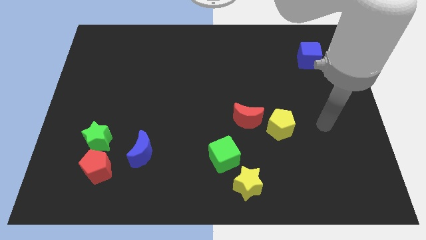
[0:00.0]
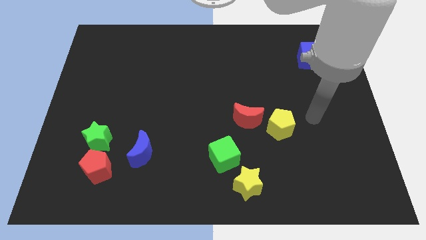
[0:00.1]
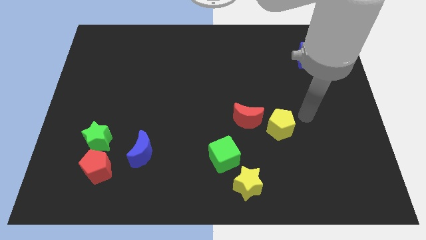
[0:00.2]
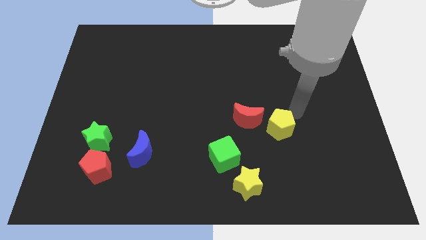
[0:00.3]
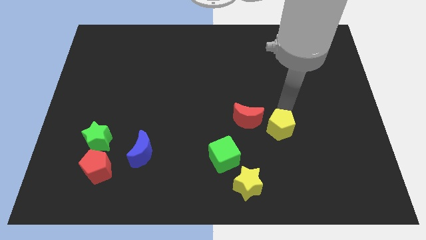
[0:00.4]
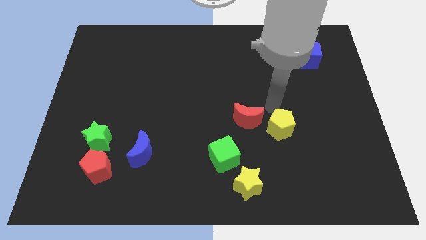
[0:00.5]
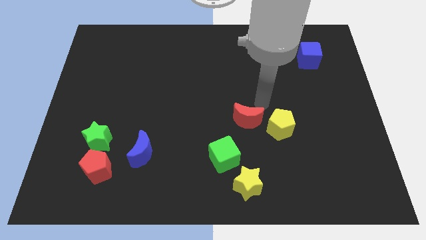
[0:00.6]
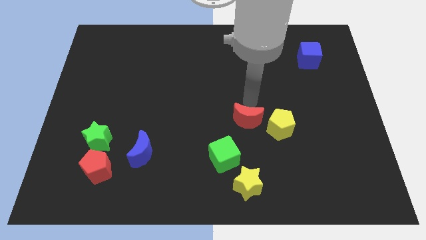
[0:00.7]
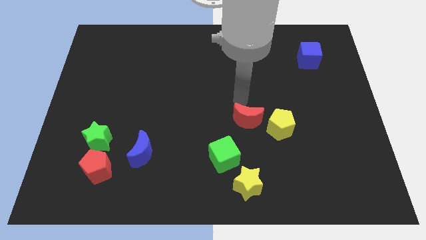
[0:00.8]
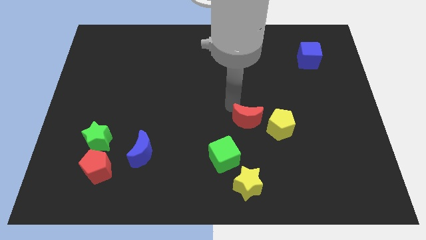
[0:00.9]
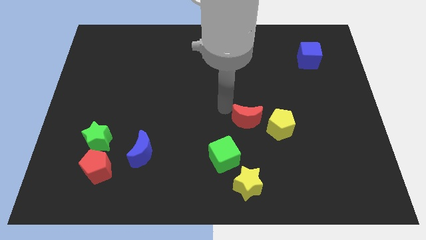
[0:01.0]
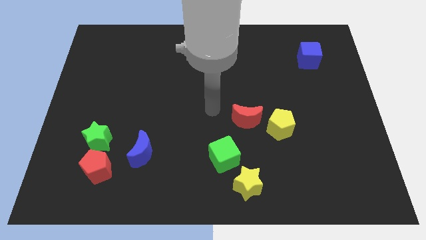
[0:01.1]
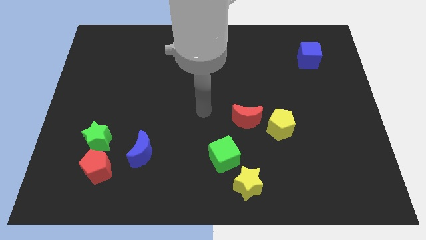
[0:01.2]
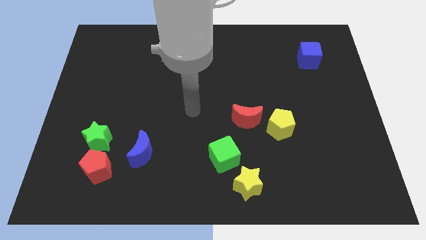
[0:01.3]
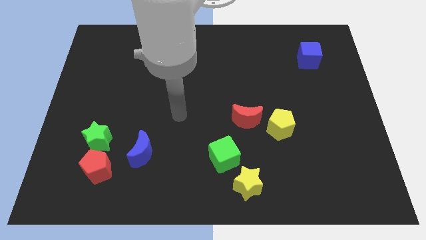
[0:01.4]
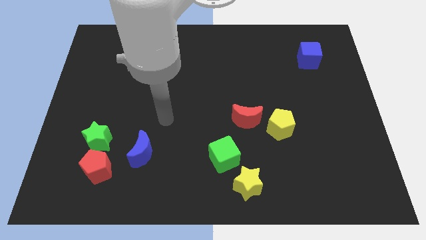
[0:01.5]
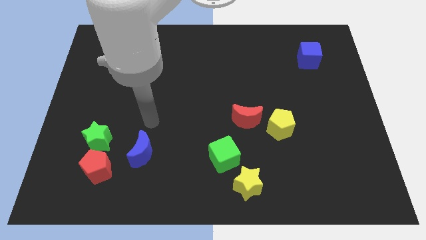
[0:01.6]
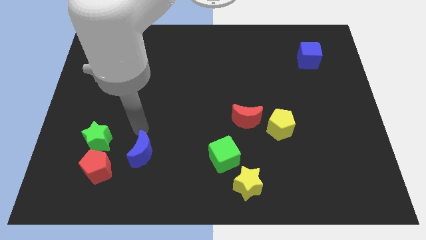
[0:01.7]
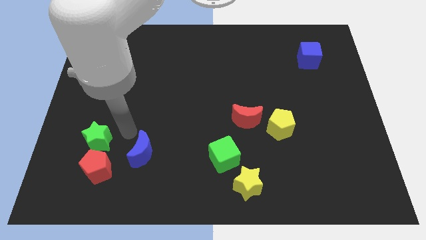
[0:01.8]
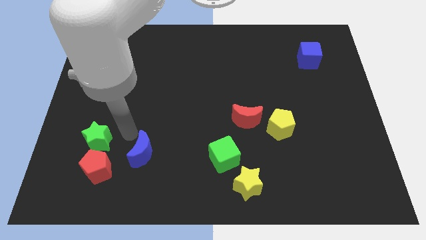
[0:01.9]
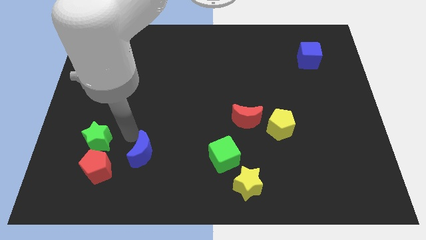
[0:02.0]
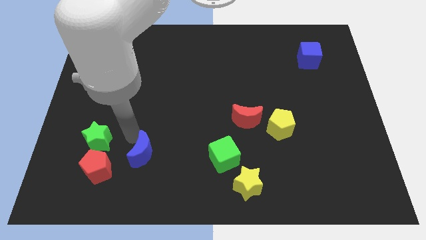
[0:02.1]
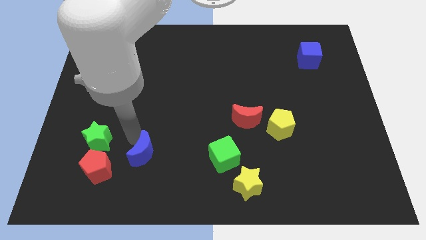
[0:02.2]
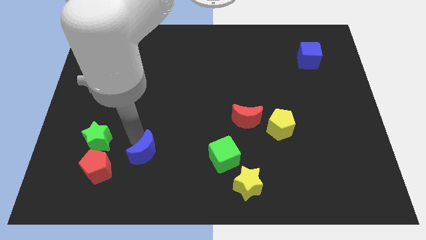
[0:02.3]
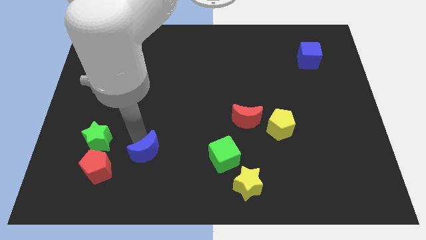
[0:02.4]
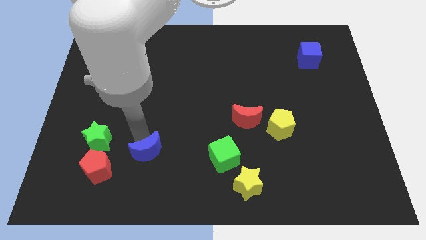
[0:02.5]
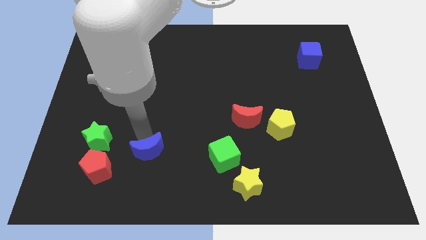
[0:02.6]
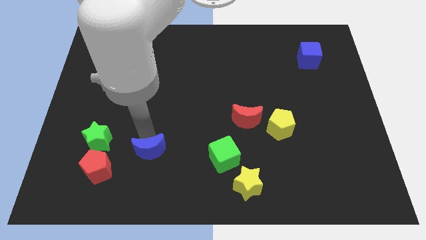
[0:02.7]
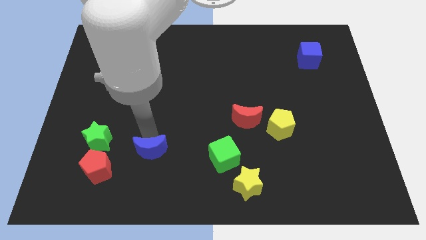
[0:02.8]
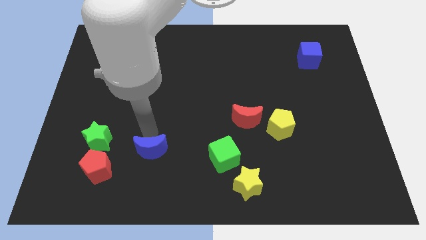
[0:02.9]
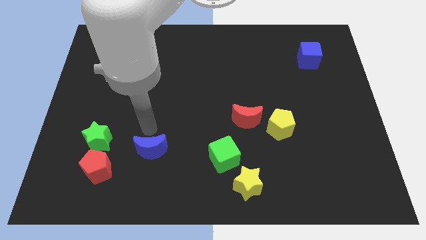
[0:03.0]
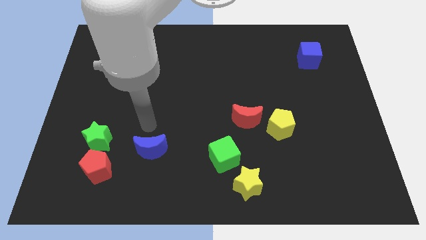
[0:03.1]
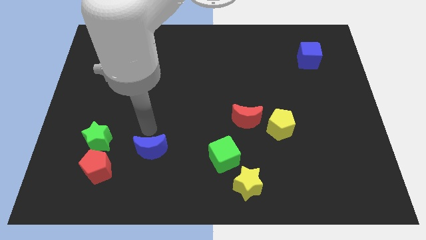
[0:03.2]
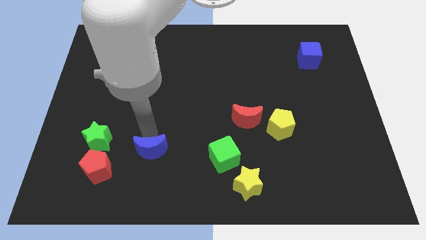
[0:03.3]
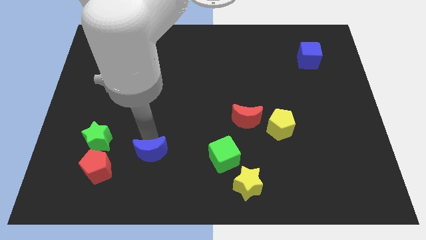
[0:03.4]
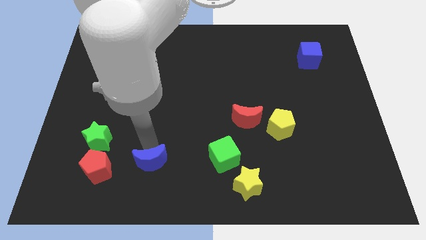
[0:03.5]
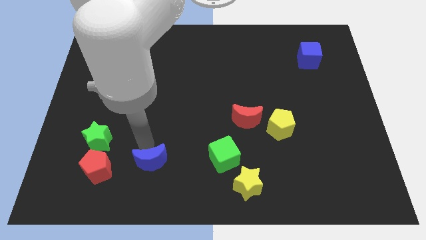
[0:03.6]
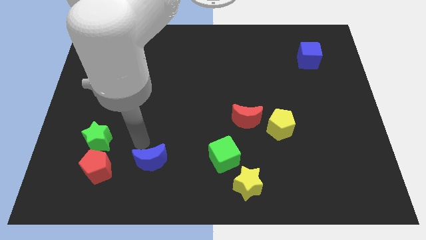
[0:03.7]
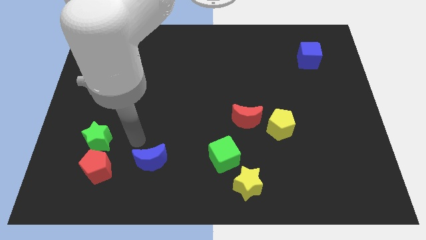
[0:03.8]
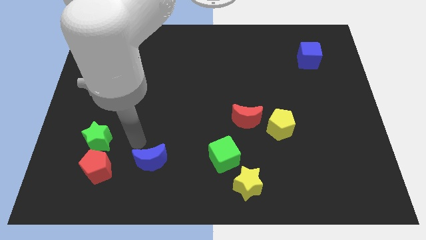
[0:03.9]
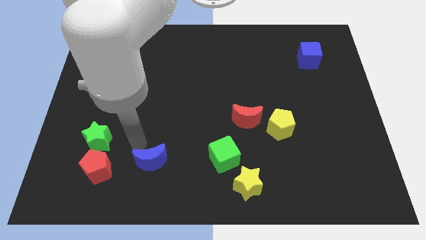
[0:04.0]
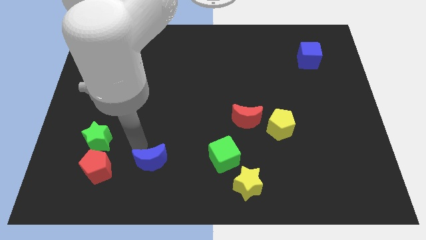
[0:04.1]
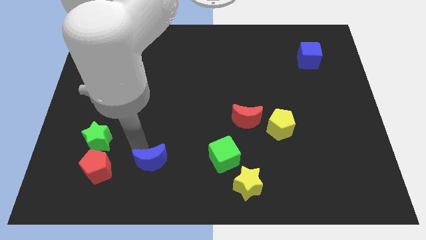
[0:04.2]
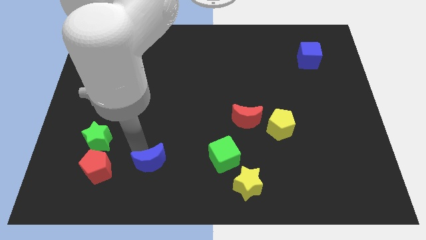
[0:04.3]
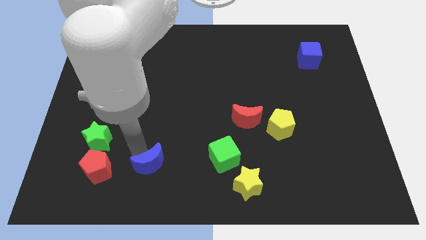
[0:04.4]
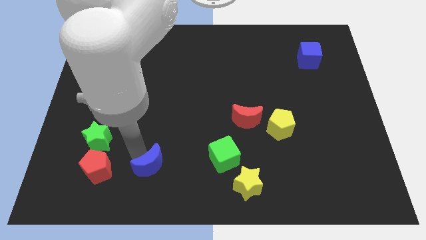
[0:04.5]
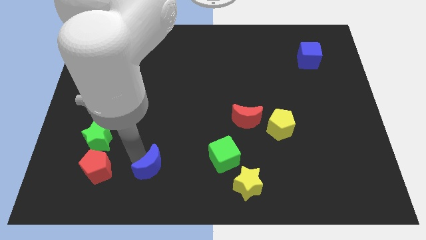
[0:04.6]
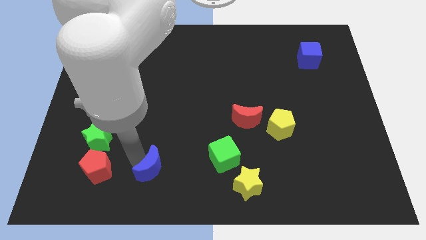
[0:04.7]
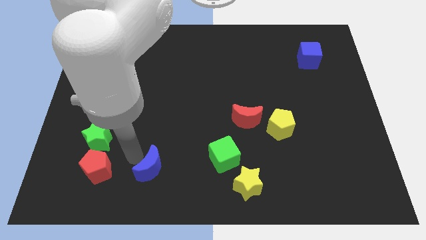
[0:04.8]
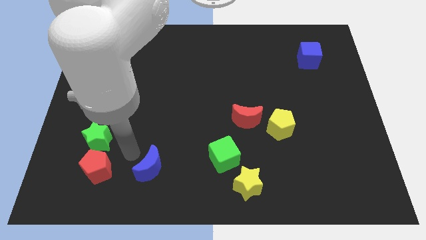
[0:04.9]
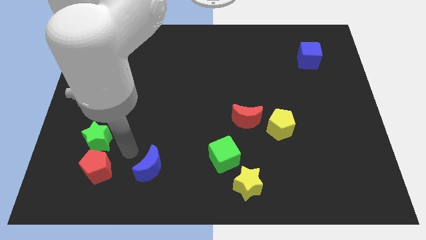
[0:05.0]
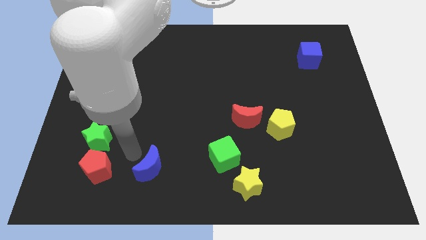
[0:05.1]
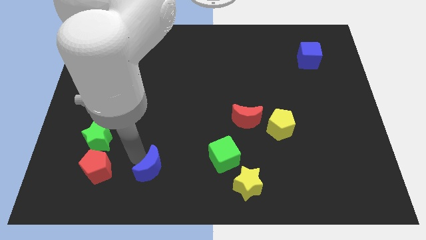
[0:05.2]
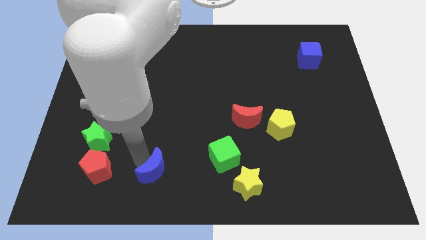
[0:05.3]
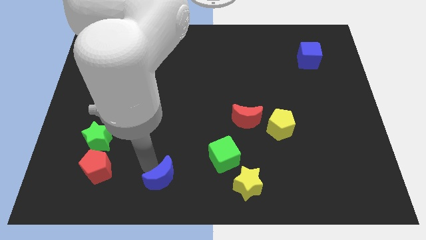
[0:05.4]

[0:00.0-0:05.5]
push the blue moon to the bottom side

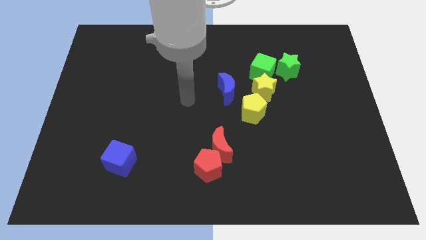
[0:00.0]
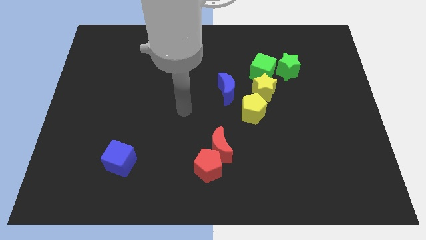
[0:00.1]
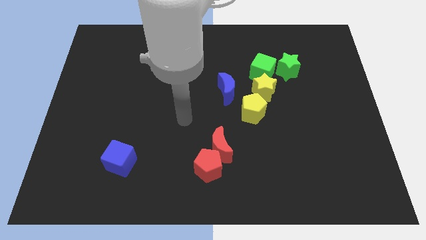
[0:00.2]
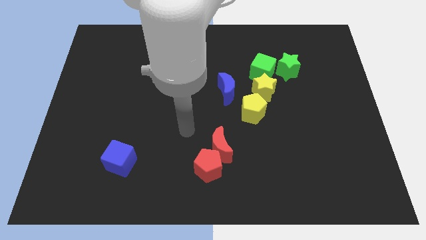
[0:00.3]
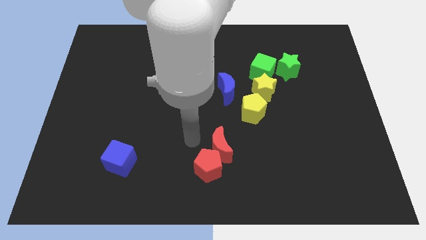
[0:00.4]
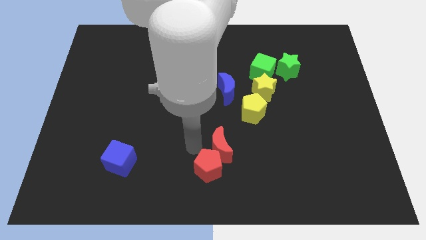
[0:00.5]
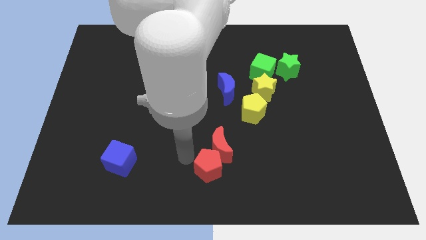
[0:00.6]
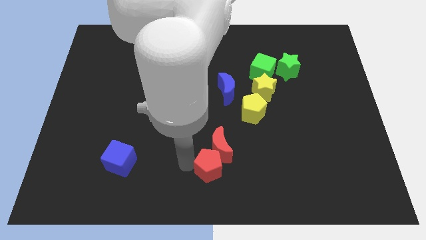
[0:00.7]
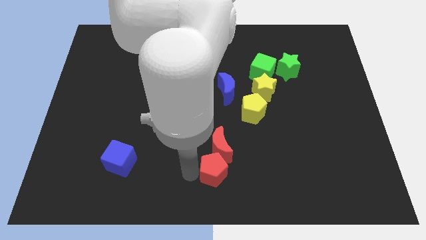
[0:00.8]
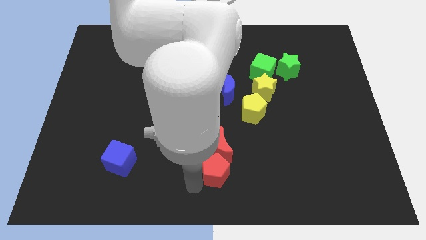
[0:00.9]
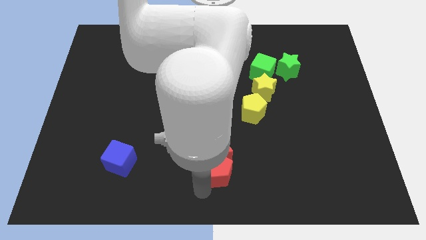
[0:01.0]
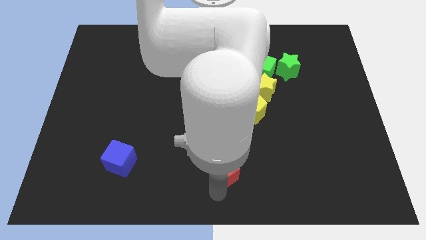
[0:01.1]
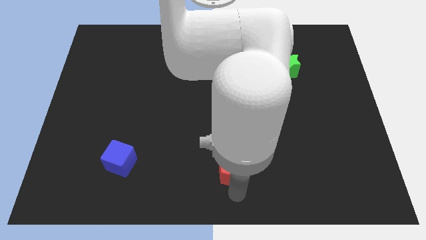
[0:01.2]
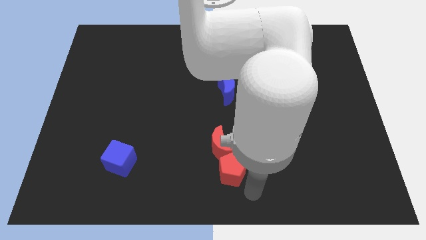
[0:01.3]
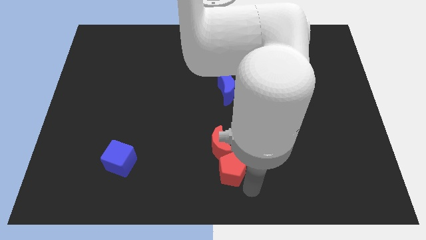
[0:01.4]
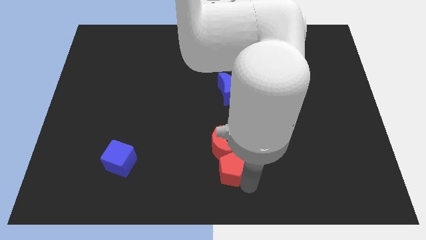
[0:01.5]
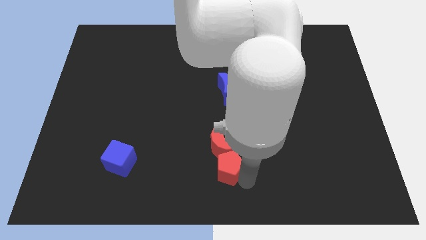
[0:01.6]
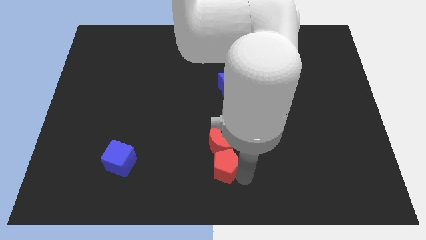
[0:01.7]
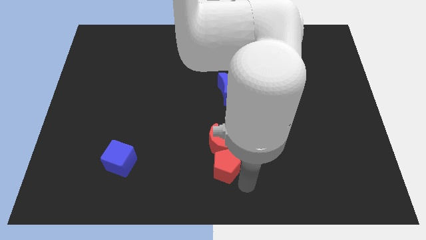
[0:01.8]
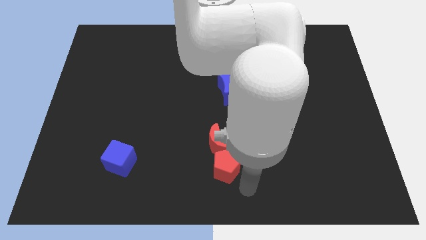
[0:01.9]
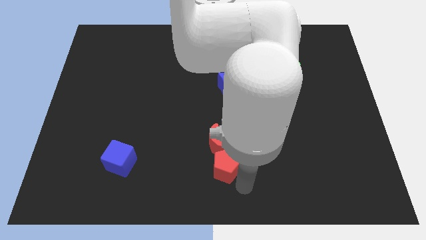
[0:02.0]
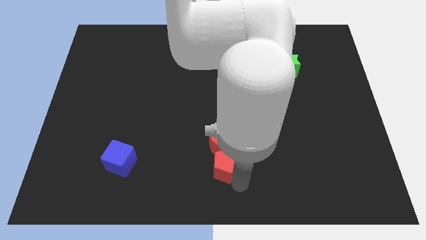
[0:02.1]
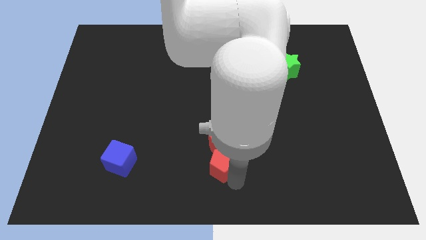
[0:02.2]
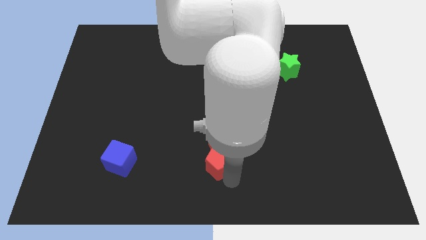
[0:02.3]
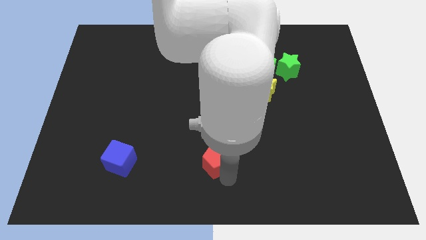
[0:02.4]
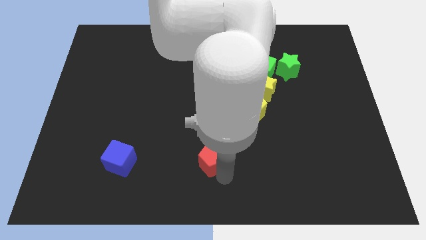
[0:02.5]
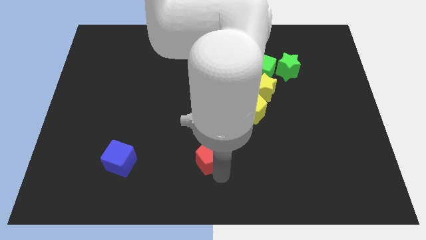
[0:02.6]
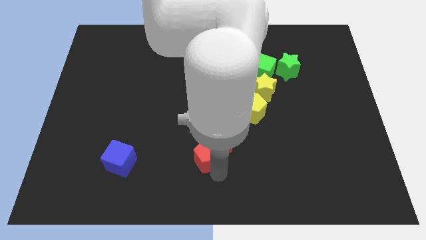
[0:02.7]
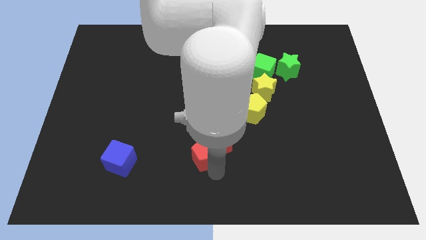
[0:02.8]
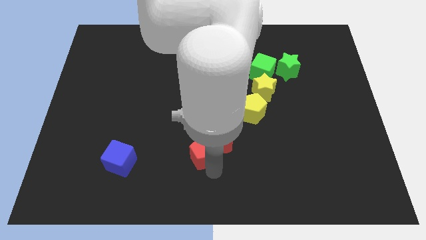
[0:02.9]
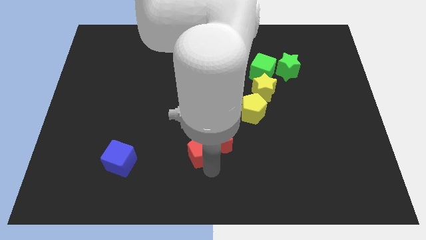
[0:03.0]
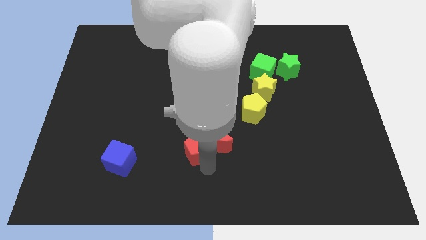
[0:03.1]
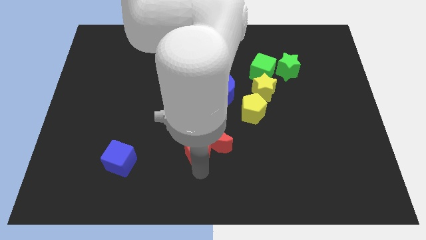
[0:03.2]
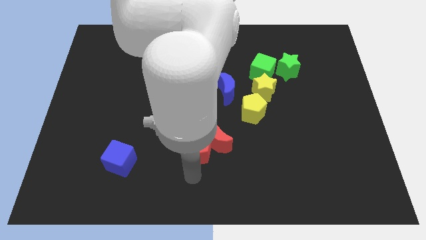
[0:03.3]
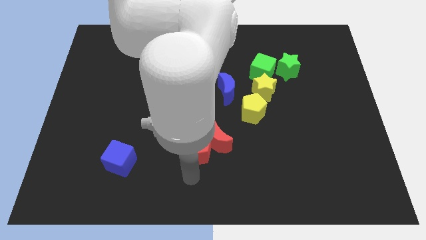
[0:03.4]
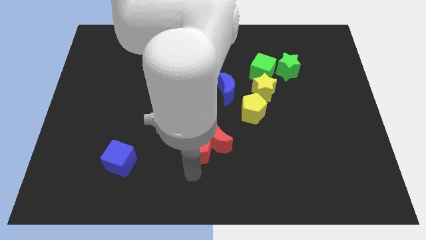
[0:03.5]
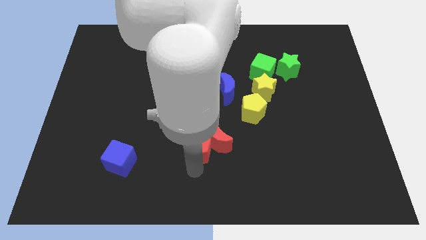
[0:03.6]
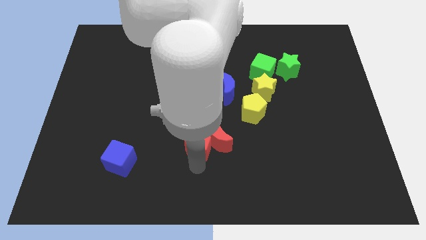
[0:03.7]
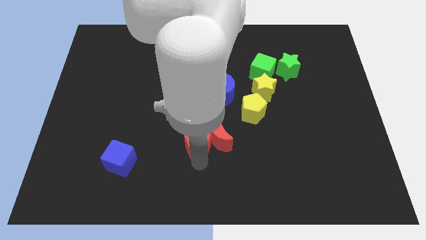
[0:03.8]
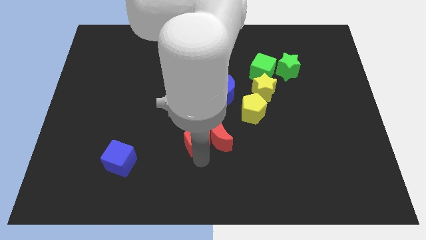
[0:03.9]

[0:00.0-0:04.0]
put the red pentagon to the middle
